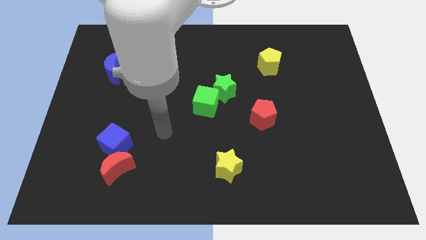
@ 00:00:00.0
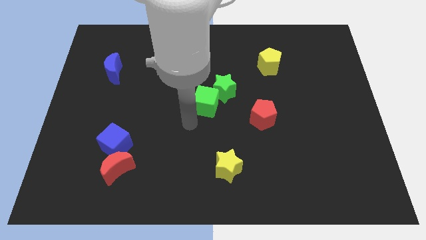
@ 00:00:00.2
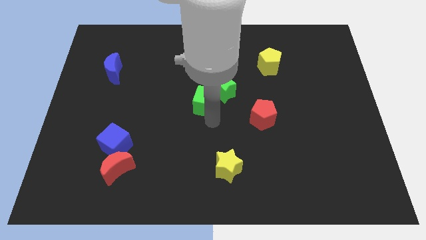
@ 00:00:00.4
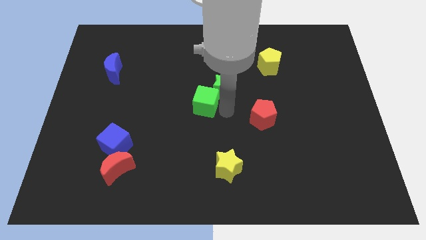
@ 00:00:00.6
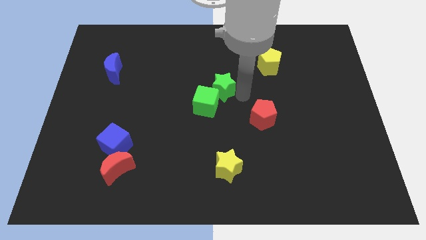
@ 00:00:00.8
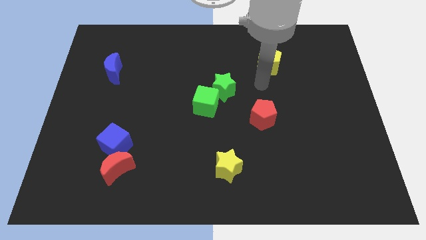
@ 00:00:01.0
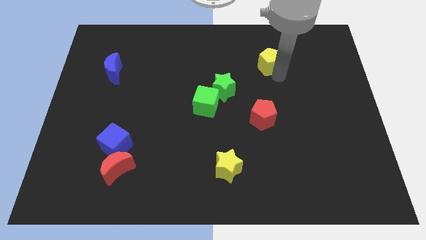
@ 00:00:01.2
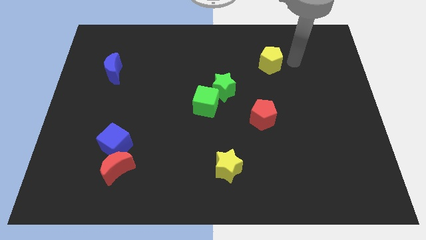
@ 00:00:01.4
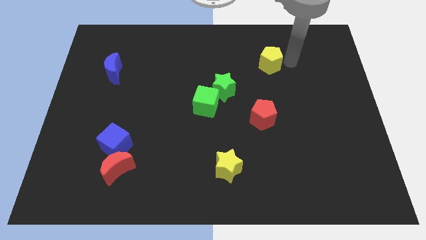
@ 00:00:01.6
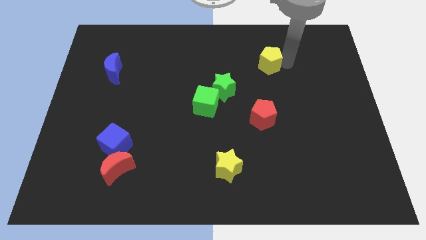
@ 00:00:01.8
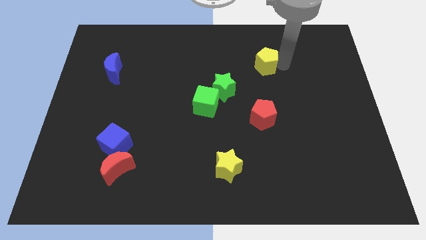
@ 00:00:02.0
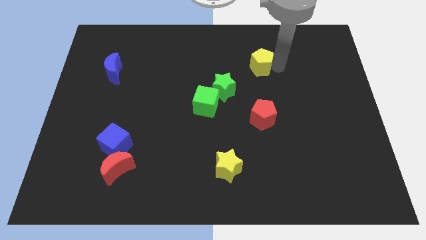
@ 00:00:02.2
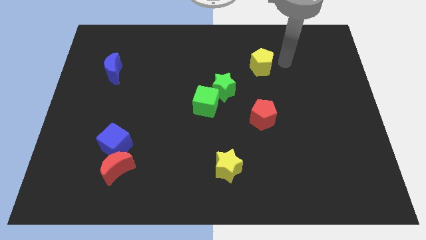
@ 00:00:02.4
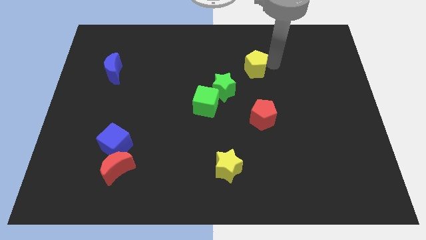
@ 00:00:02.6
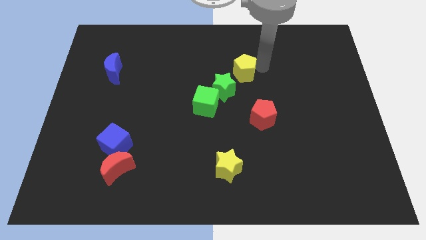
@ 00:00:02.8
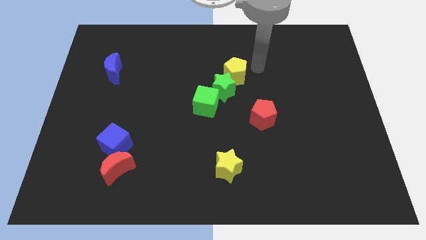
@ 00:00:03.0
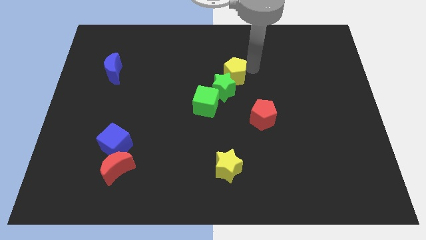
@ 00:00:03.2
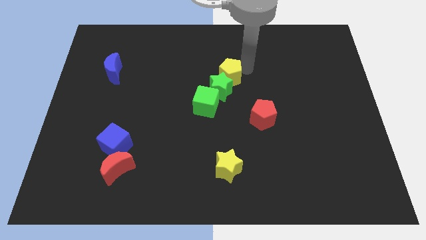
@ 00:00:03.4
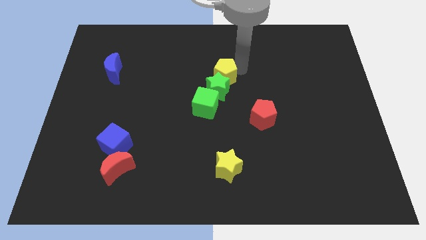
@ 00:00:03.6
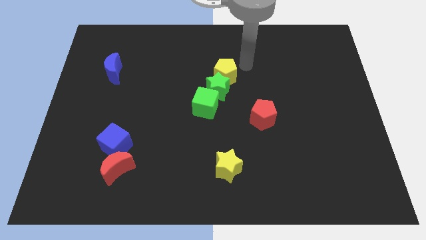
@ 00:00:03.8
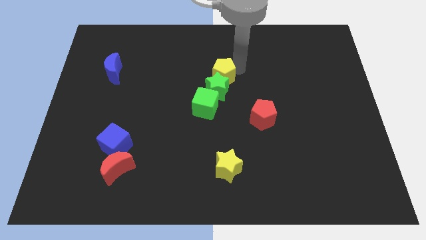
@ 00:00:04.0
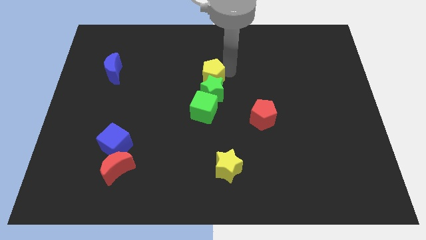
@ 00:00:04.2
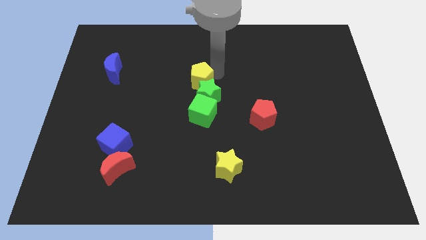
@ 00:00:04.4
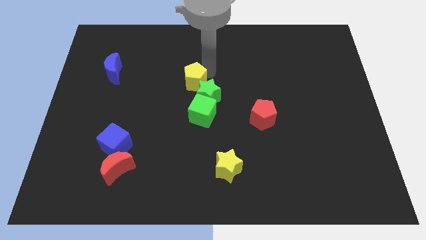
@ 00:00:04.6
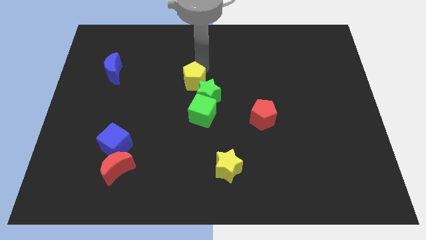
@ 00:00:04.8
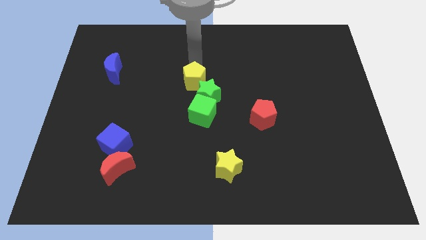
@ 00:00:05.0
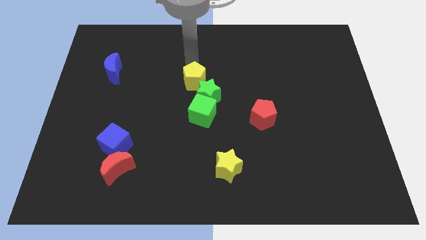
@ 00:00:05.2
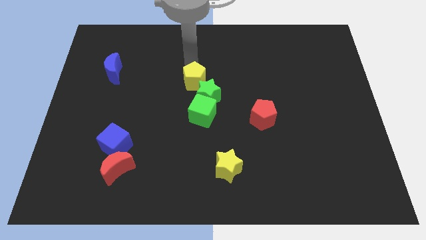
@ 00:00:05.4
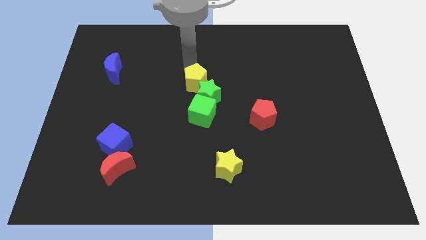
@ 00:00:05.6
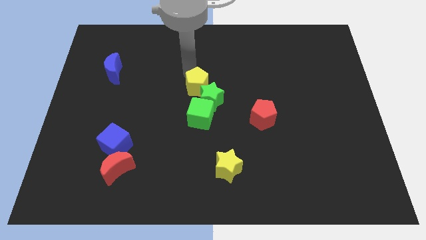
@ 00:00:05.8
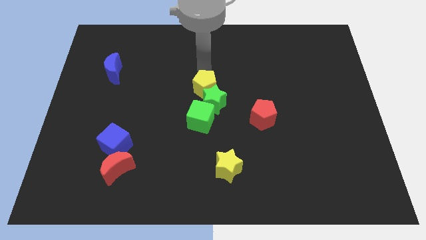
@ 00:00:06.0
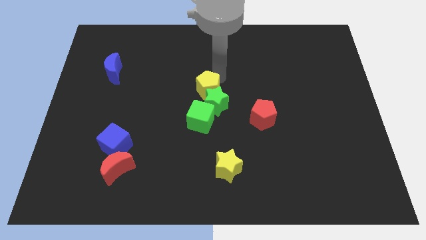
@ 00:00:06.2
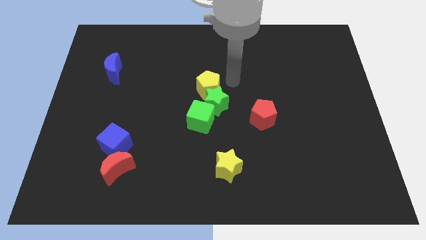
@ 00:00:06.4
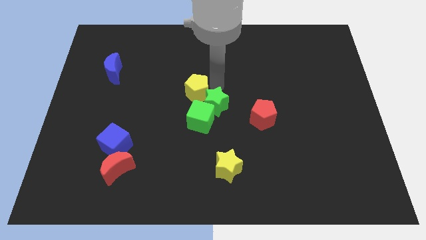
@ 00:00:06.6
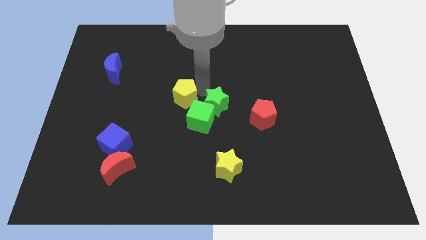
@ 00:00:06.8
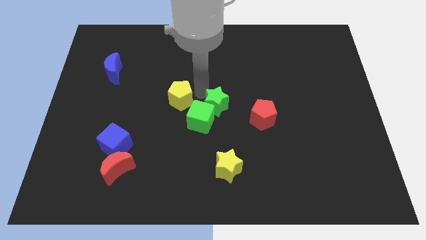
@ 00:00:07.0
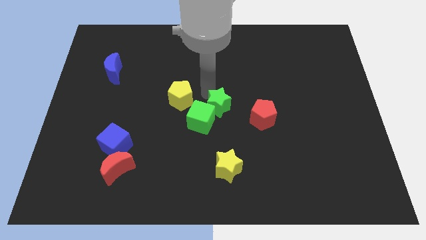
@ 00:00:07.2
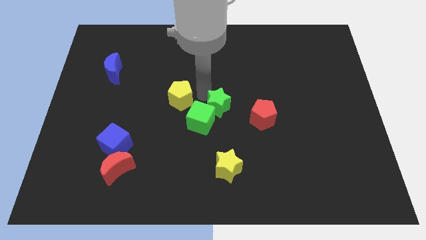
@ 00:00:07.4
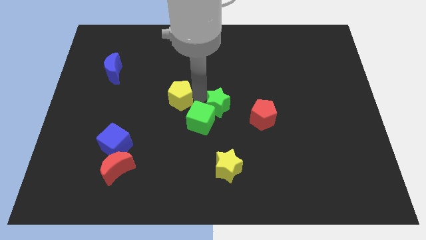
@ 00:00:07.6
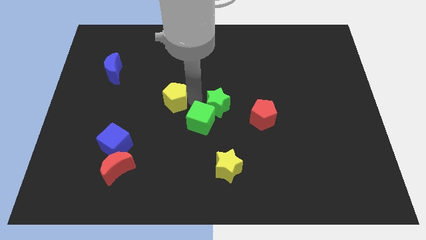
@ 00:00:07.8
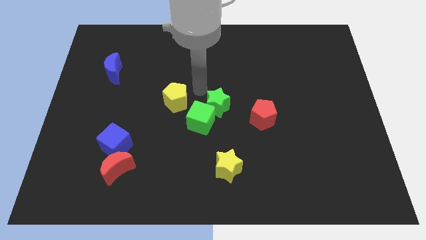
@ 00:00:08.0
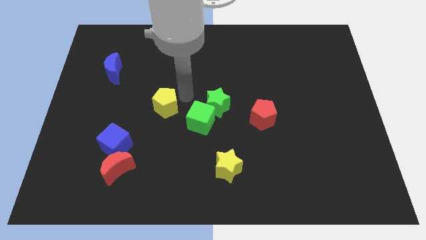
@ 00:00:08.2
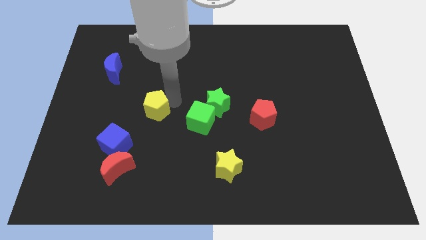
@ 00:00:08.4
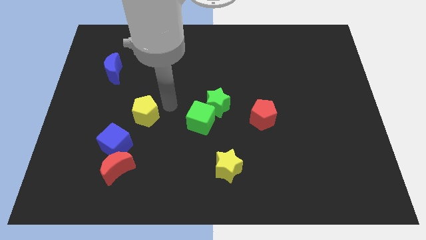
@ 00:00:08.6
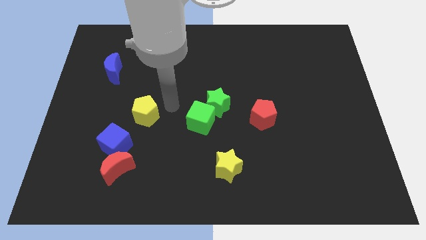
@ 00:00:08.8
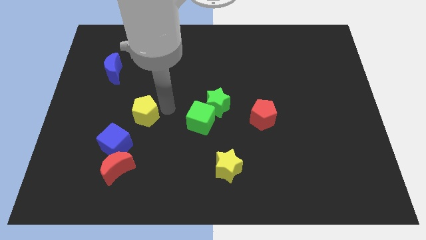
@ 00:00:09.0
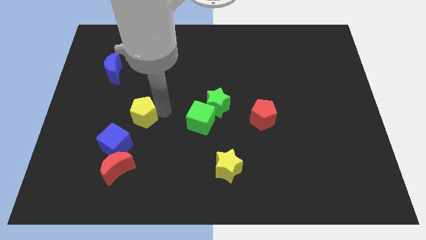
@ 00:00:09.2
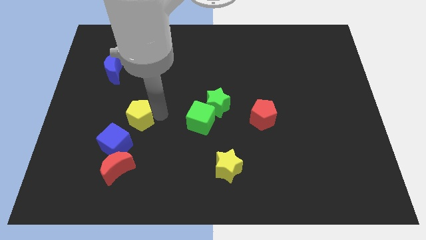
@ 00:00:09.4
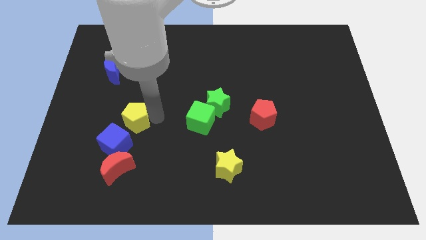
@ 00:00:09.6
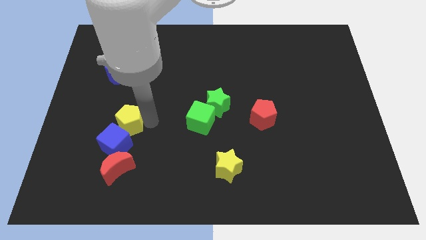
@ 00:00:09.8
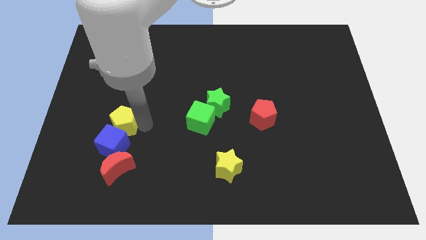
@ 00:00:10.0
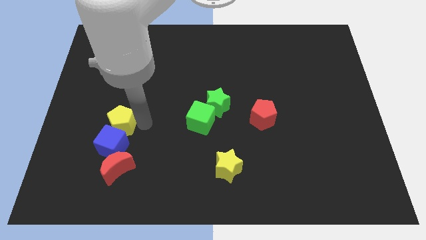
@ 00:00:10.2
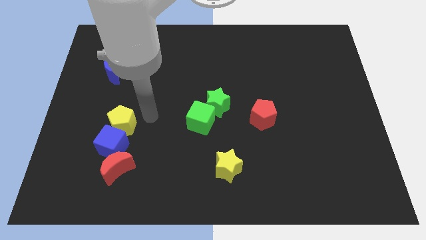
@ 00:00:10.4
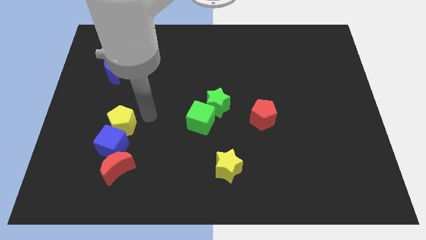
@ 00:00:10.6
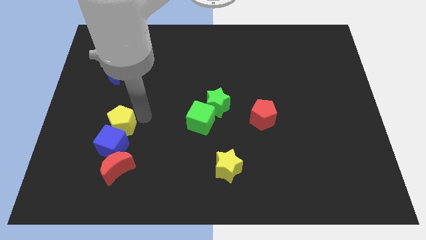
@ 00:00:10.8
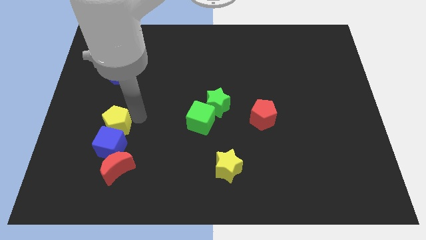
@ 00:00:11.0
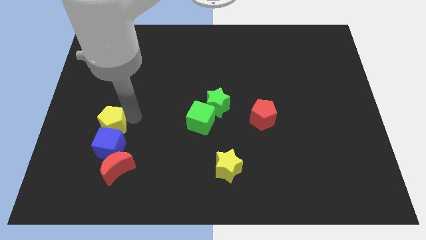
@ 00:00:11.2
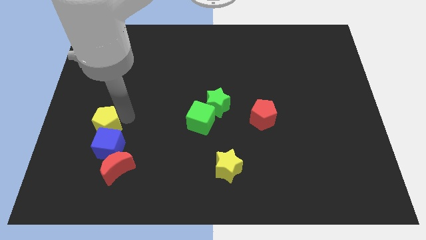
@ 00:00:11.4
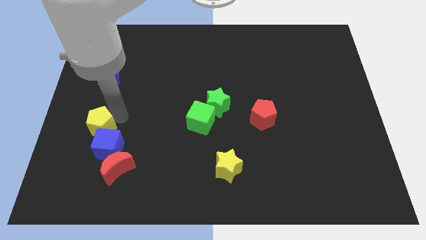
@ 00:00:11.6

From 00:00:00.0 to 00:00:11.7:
put the yellow pentagon to the top left of the red moon

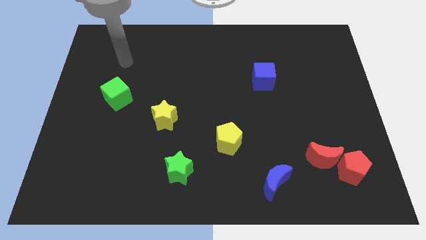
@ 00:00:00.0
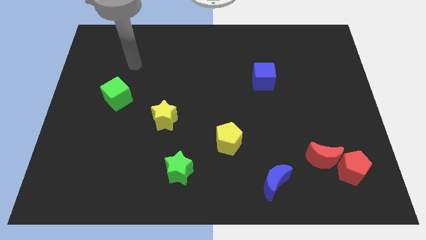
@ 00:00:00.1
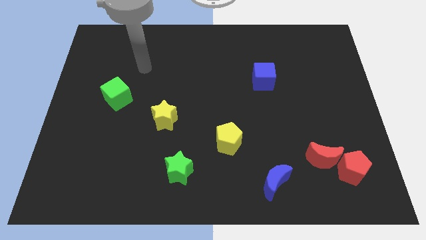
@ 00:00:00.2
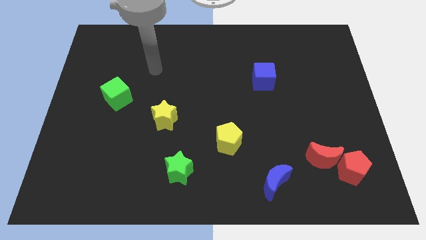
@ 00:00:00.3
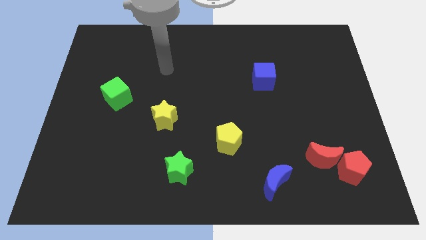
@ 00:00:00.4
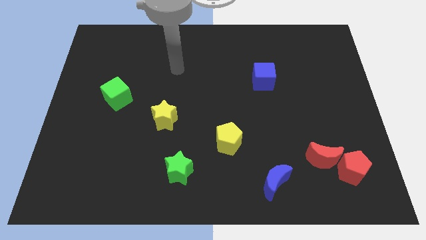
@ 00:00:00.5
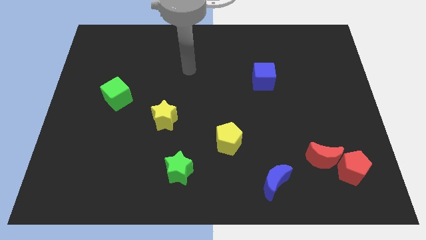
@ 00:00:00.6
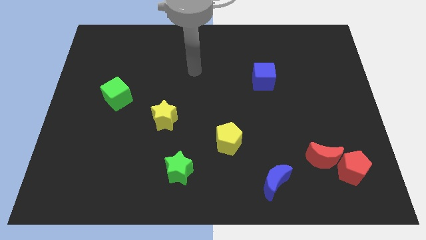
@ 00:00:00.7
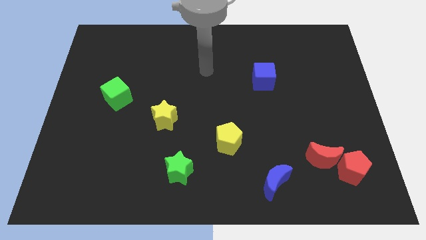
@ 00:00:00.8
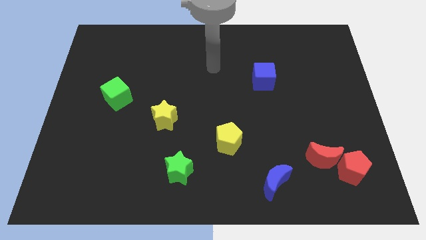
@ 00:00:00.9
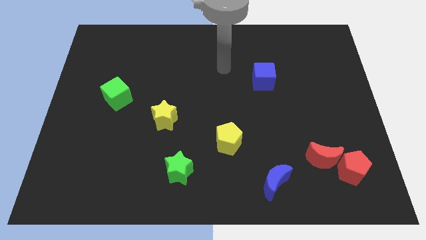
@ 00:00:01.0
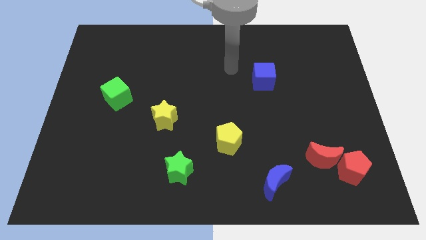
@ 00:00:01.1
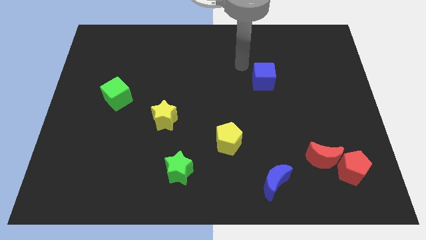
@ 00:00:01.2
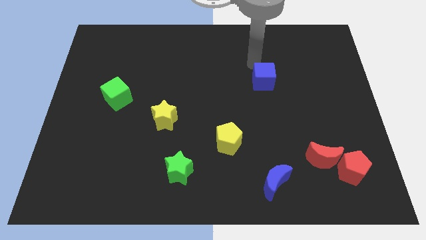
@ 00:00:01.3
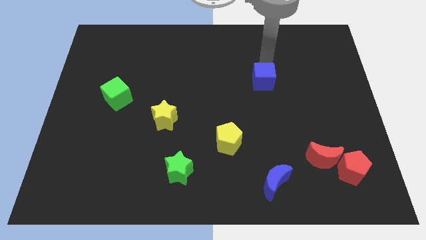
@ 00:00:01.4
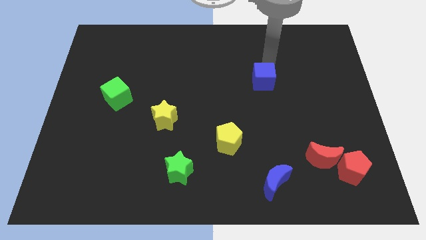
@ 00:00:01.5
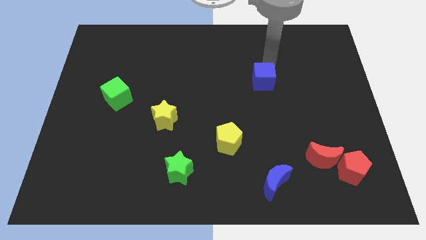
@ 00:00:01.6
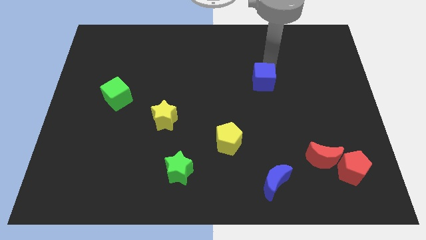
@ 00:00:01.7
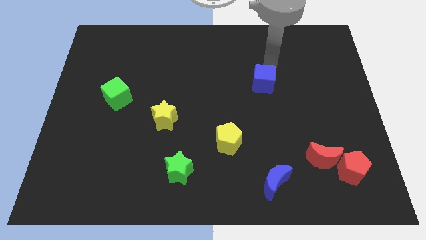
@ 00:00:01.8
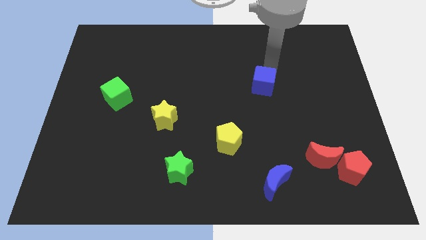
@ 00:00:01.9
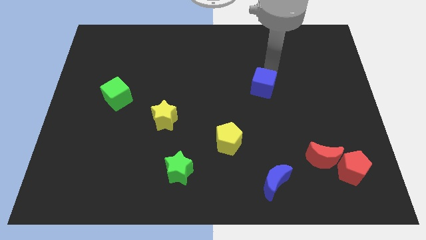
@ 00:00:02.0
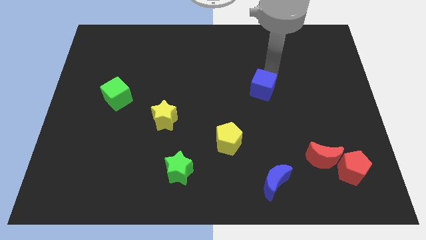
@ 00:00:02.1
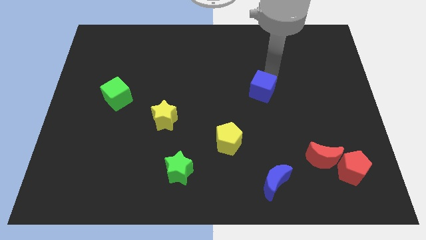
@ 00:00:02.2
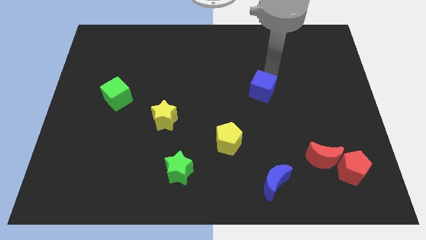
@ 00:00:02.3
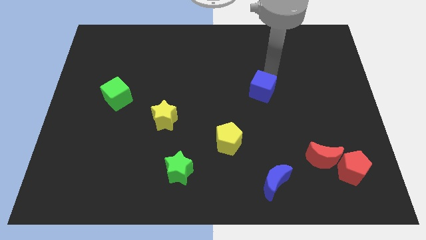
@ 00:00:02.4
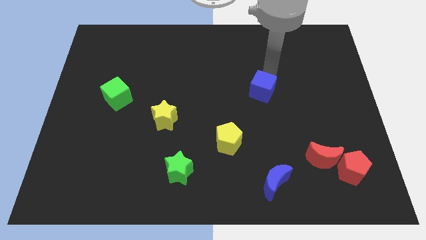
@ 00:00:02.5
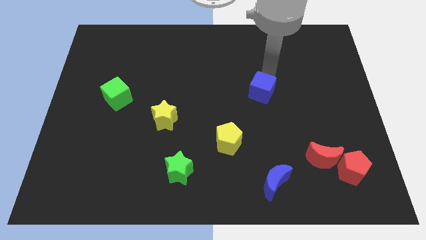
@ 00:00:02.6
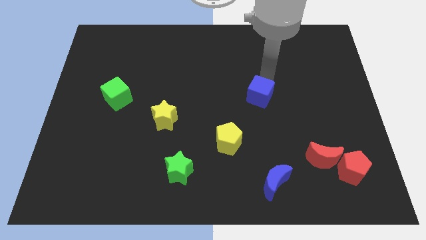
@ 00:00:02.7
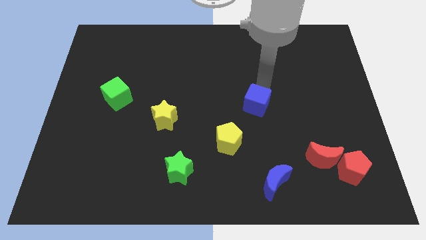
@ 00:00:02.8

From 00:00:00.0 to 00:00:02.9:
move the blue cube diagonally up and to the right of the yellow pentagon
